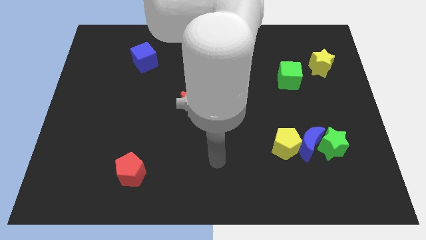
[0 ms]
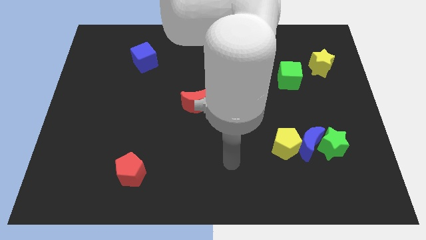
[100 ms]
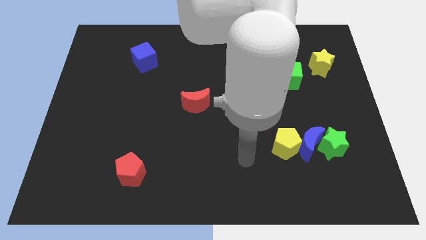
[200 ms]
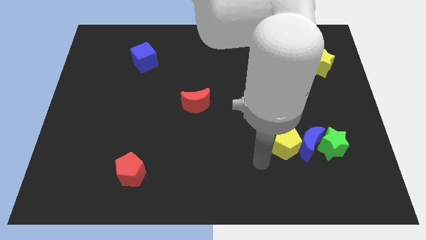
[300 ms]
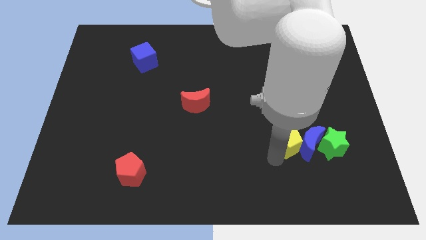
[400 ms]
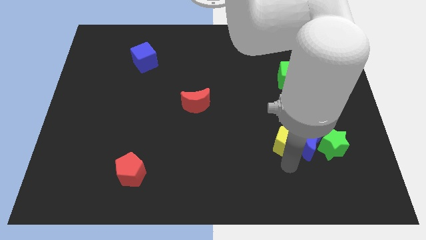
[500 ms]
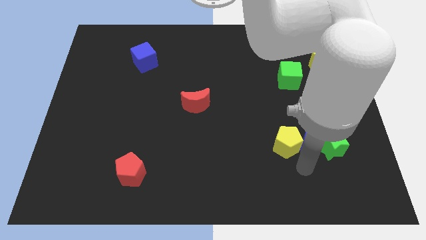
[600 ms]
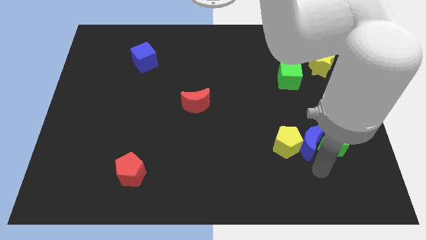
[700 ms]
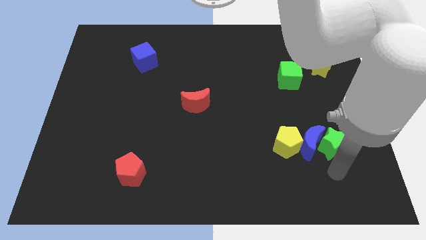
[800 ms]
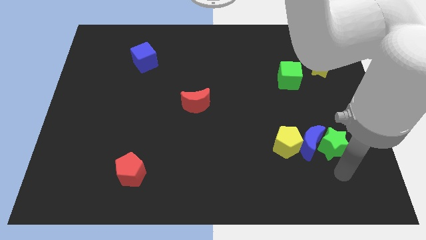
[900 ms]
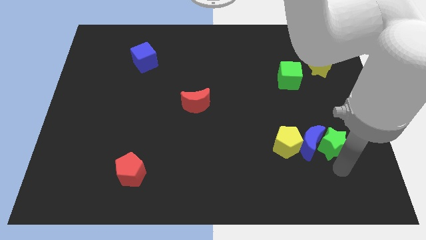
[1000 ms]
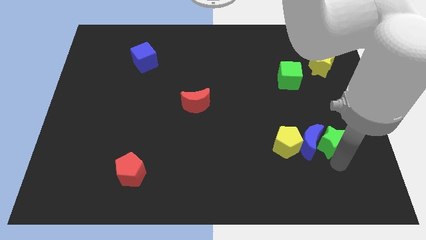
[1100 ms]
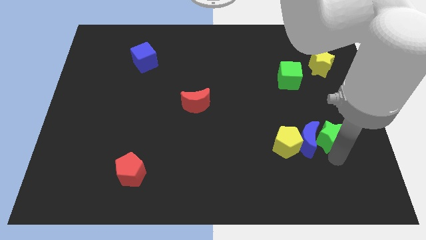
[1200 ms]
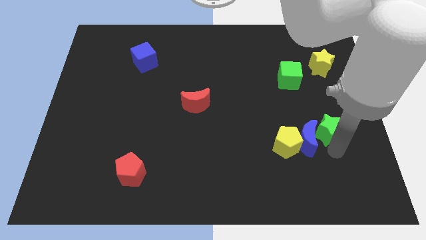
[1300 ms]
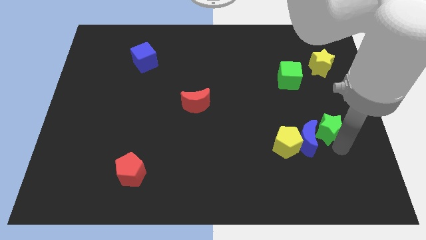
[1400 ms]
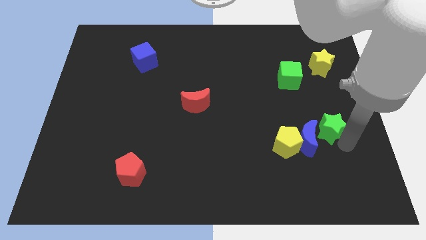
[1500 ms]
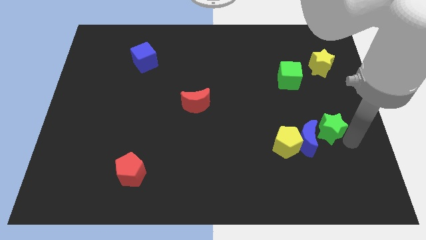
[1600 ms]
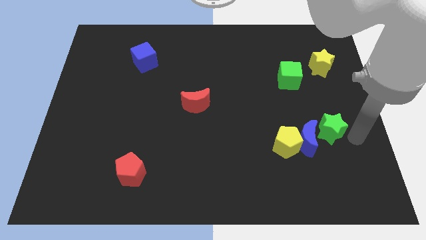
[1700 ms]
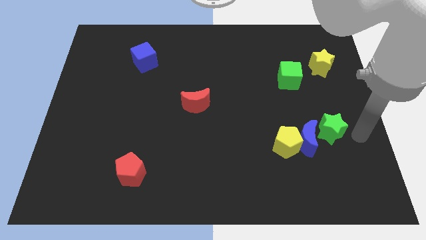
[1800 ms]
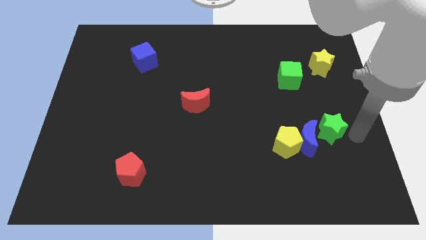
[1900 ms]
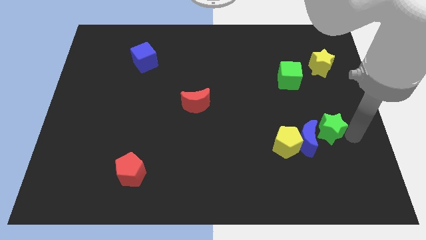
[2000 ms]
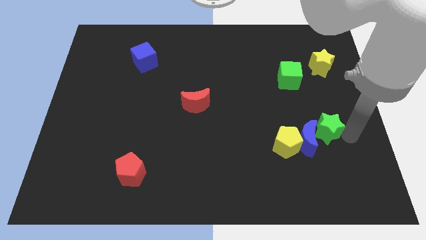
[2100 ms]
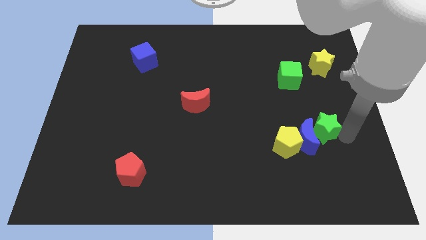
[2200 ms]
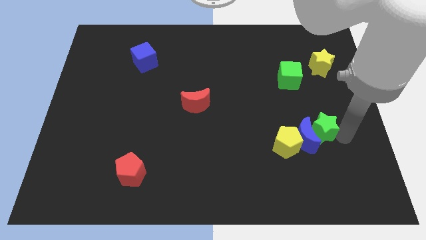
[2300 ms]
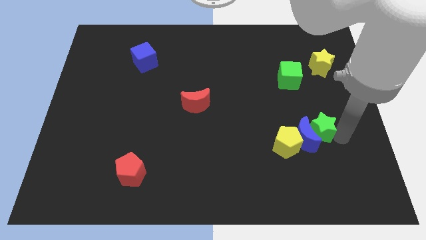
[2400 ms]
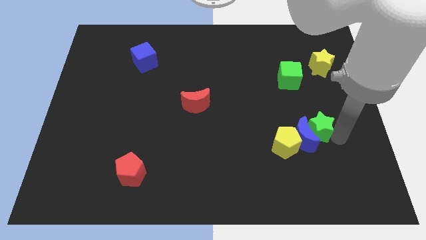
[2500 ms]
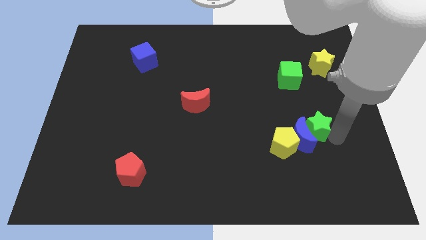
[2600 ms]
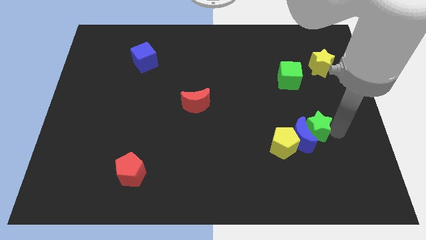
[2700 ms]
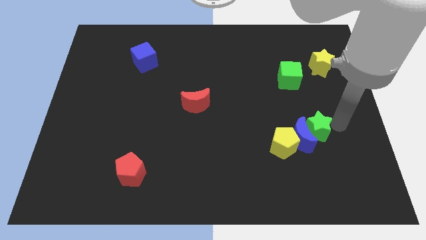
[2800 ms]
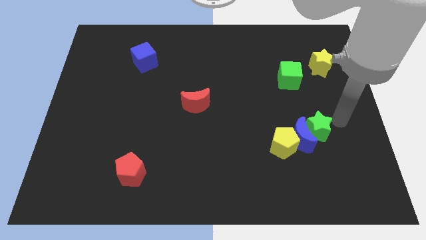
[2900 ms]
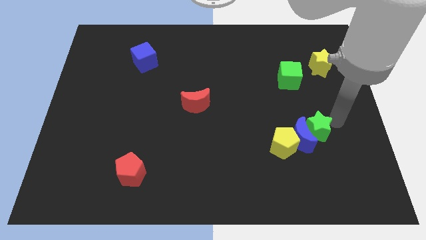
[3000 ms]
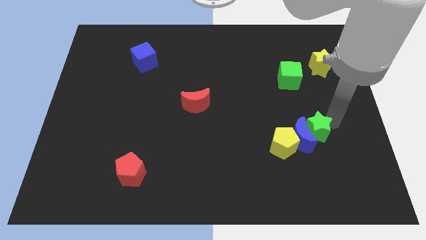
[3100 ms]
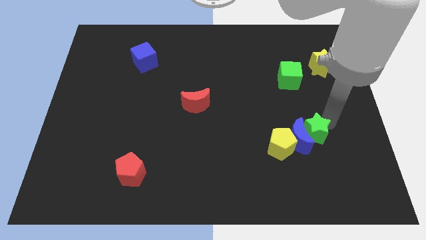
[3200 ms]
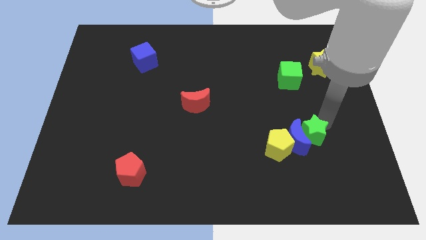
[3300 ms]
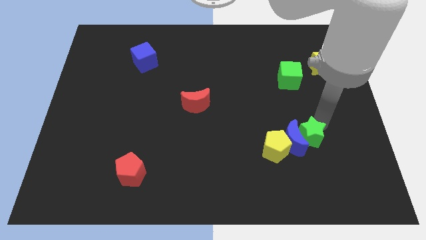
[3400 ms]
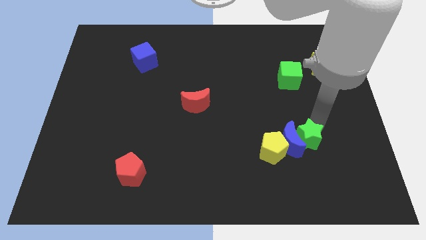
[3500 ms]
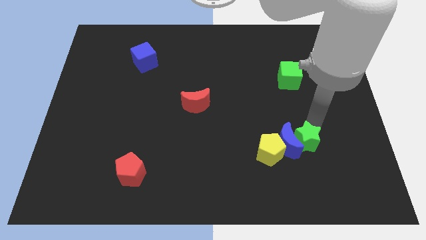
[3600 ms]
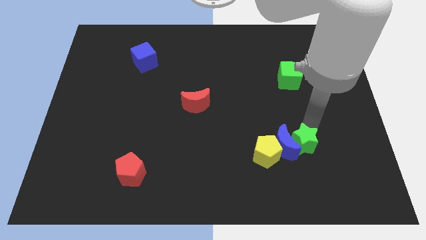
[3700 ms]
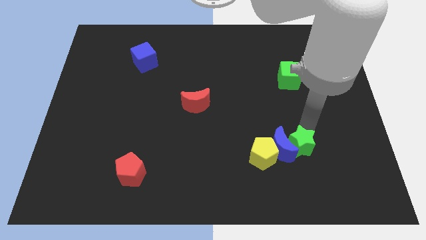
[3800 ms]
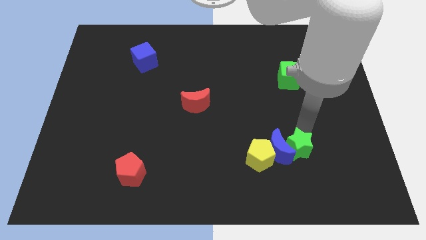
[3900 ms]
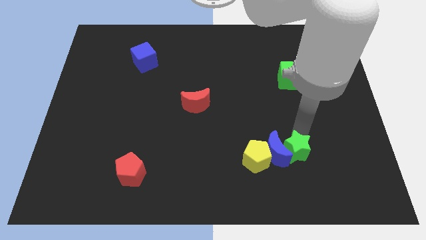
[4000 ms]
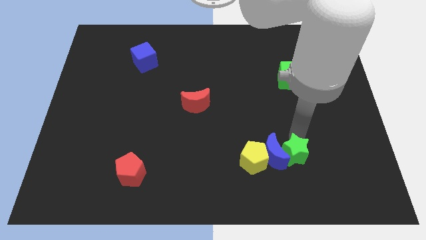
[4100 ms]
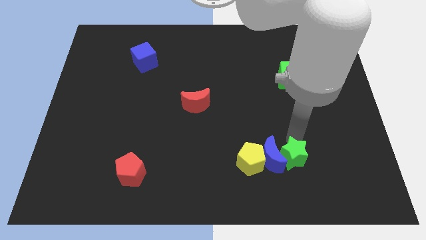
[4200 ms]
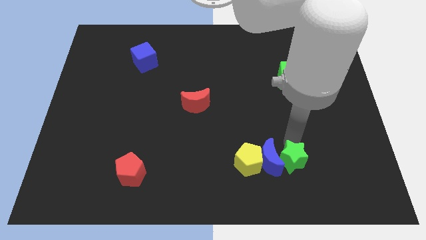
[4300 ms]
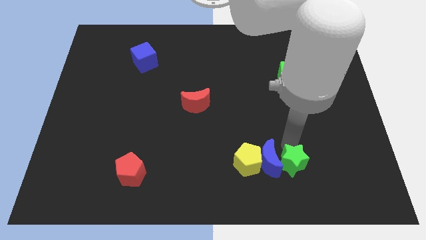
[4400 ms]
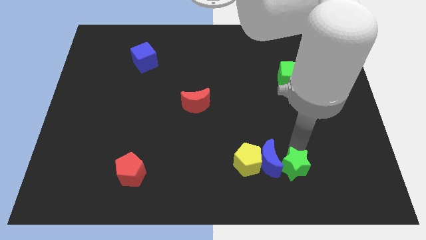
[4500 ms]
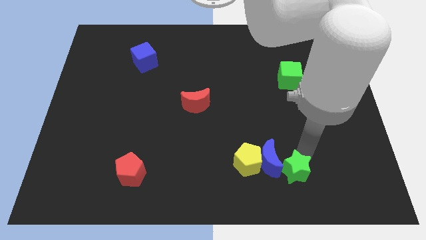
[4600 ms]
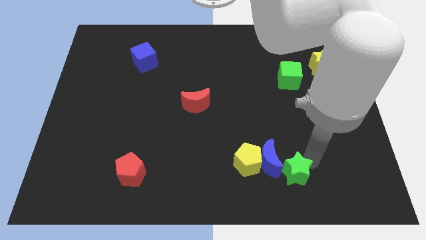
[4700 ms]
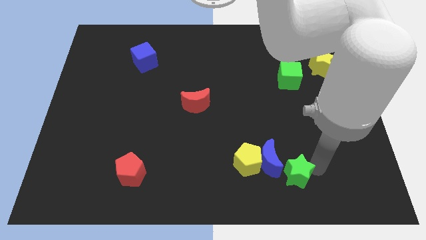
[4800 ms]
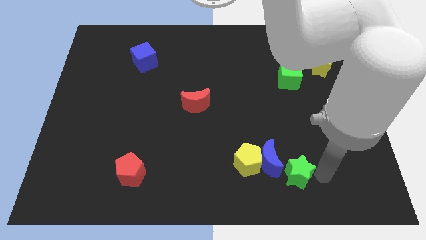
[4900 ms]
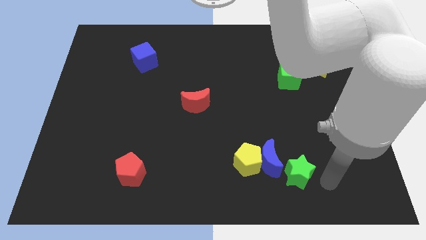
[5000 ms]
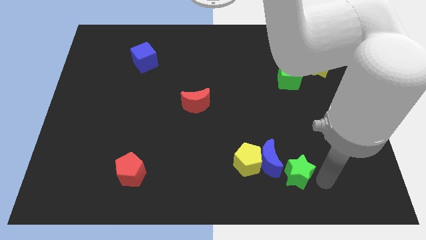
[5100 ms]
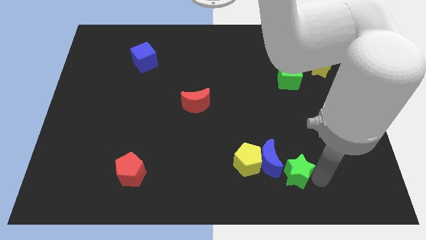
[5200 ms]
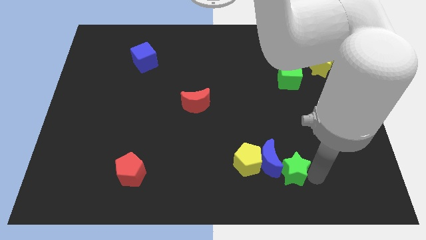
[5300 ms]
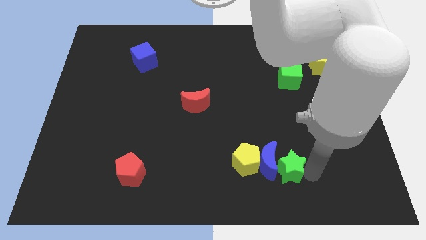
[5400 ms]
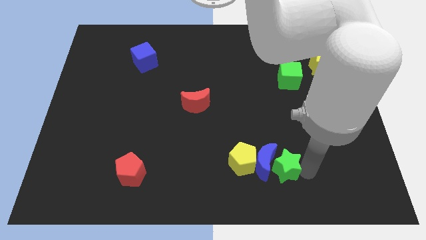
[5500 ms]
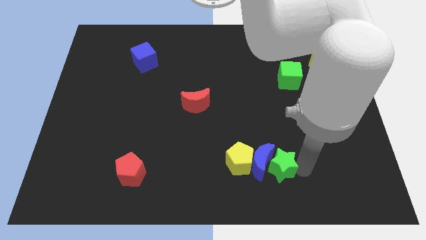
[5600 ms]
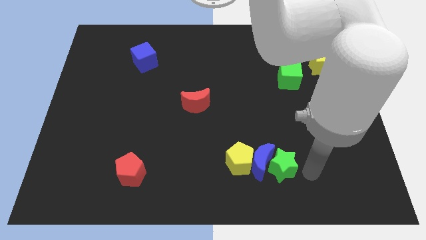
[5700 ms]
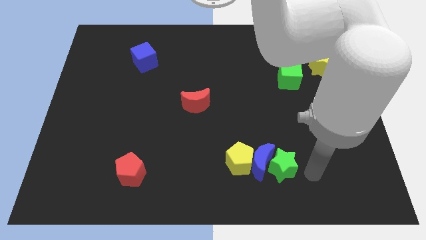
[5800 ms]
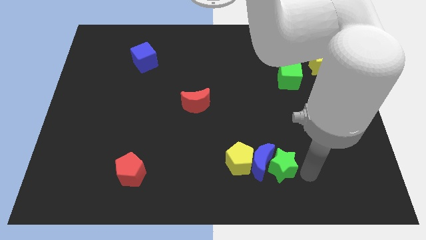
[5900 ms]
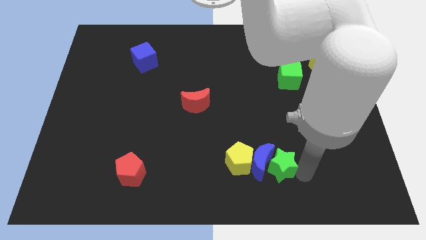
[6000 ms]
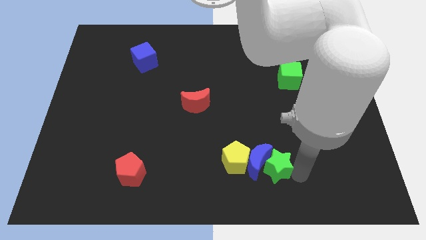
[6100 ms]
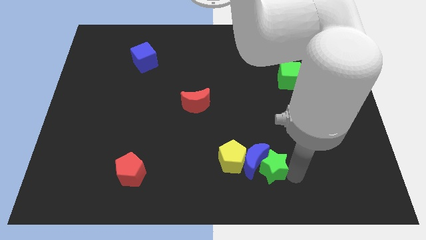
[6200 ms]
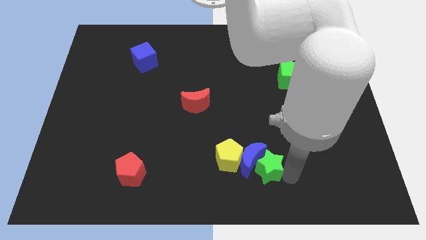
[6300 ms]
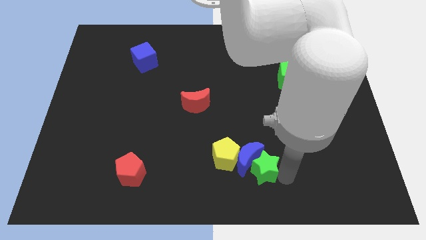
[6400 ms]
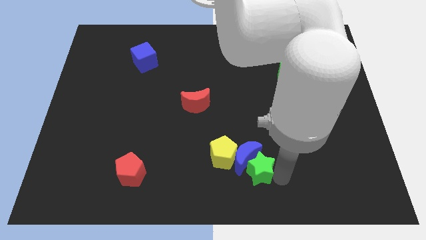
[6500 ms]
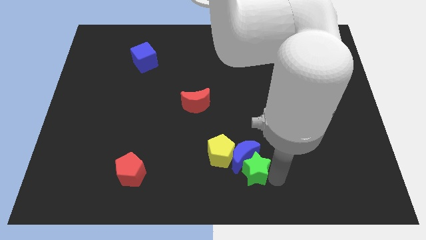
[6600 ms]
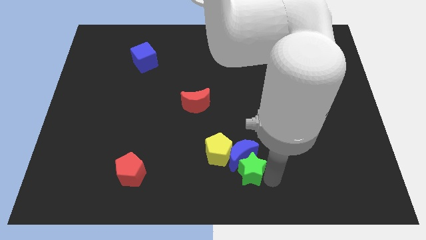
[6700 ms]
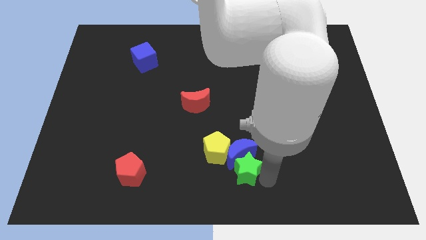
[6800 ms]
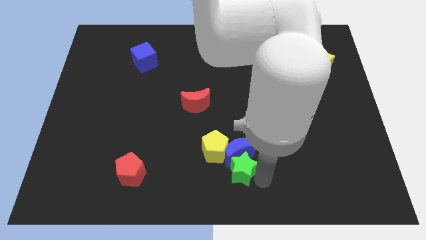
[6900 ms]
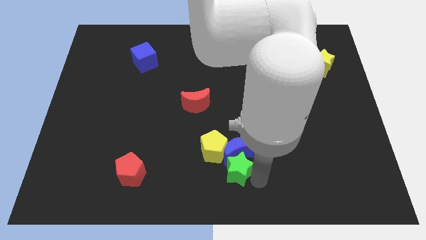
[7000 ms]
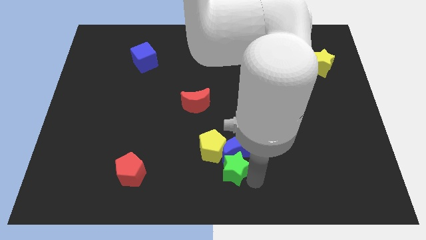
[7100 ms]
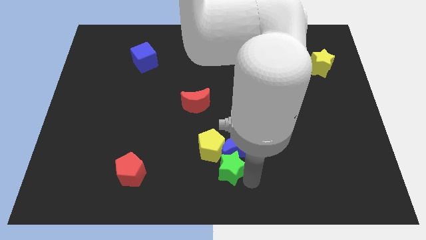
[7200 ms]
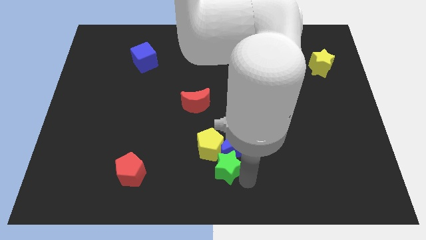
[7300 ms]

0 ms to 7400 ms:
slide the green star close to the yellow pentagon

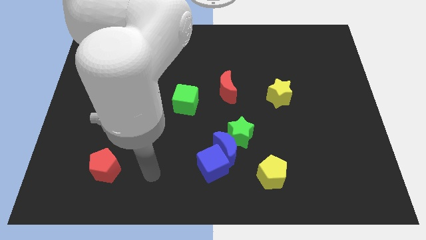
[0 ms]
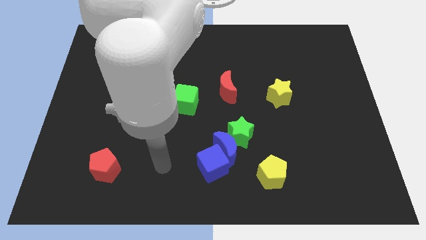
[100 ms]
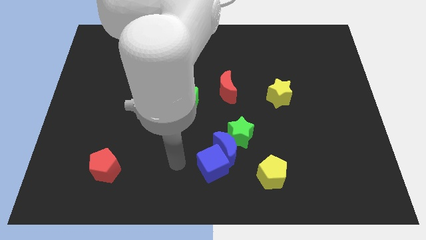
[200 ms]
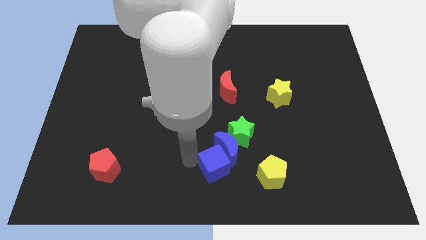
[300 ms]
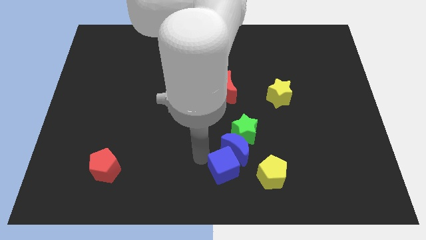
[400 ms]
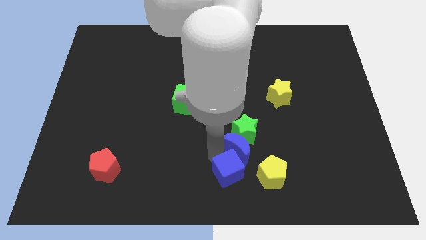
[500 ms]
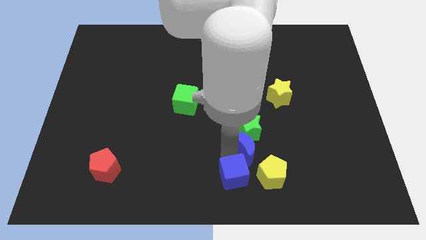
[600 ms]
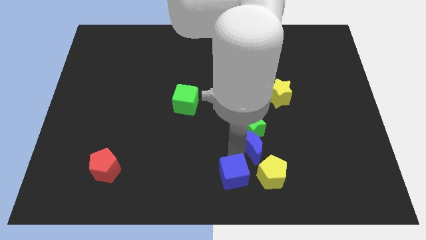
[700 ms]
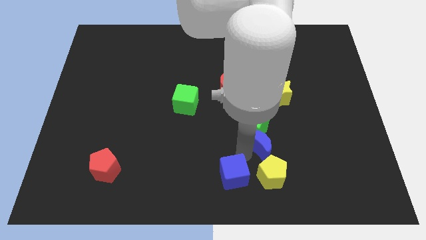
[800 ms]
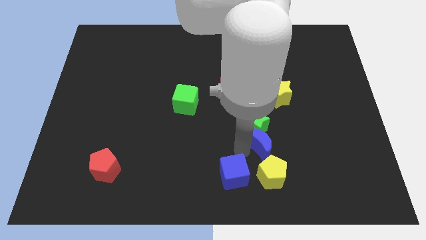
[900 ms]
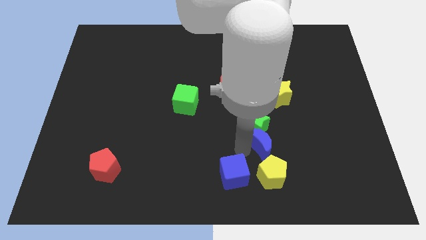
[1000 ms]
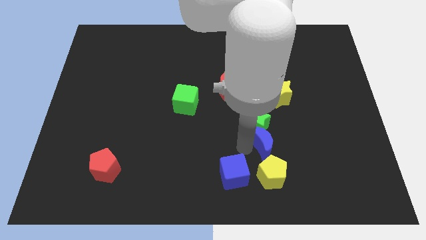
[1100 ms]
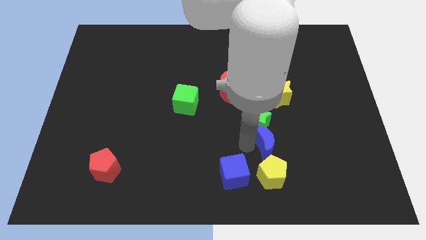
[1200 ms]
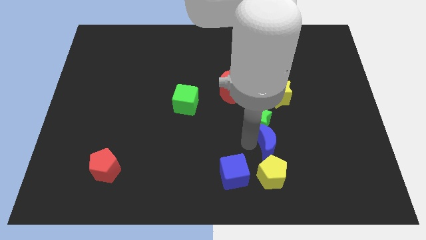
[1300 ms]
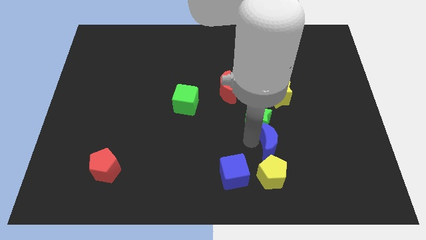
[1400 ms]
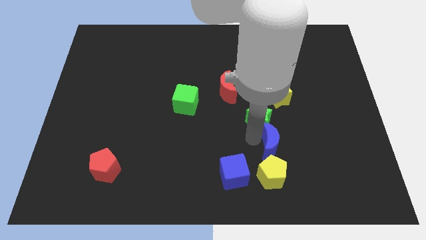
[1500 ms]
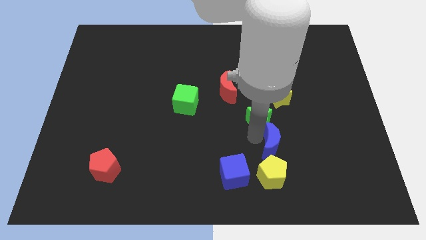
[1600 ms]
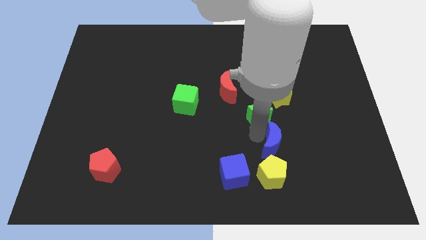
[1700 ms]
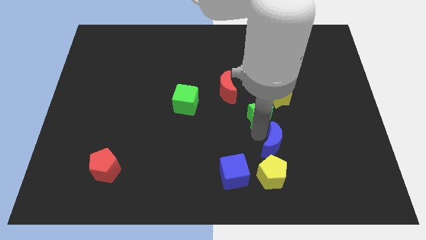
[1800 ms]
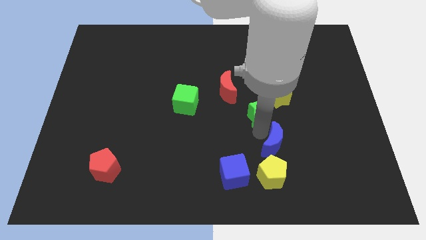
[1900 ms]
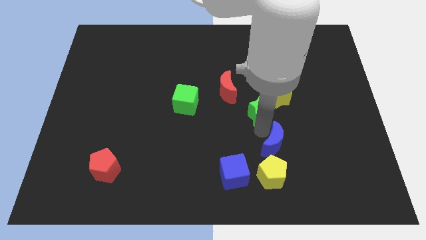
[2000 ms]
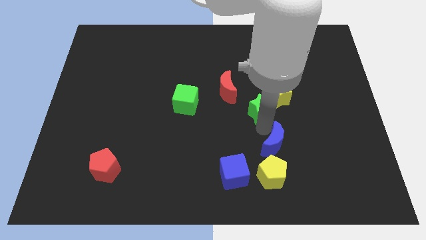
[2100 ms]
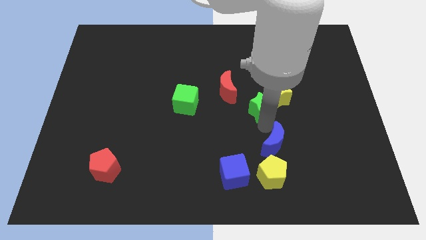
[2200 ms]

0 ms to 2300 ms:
move the green star close to the yellow star
